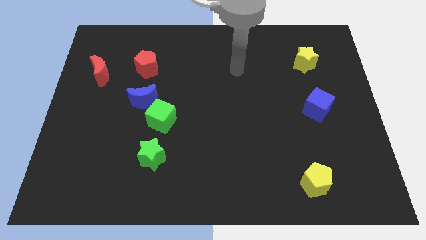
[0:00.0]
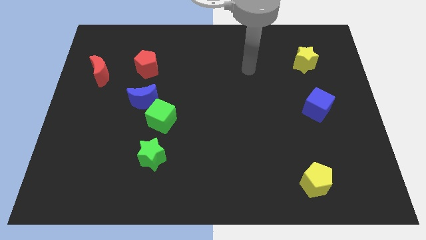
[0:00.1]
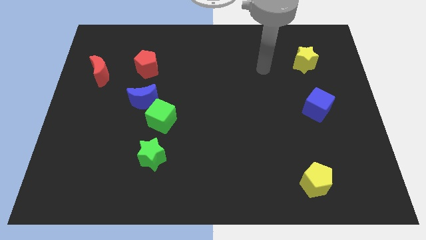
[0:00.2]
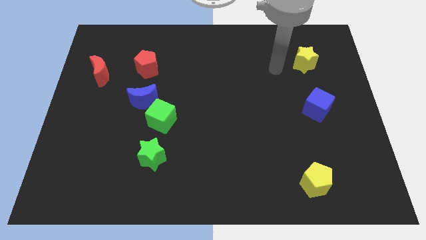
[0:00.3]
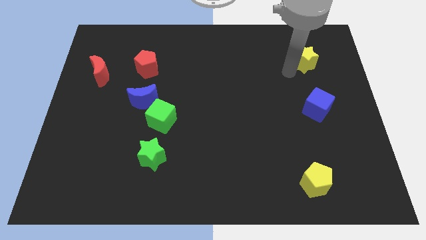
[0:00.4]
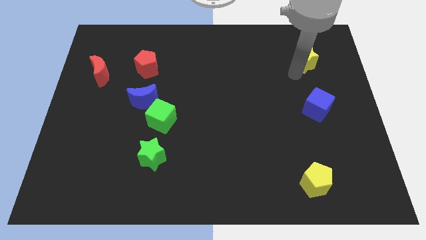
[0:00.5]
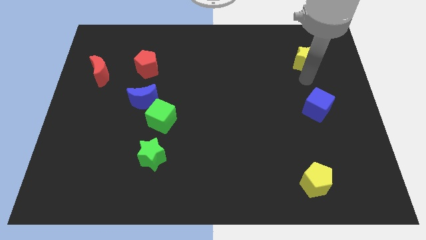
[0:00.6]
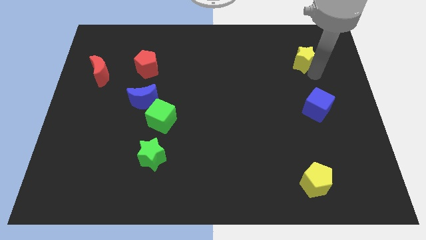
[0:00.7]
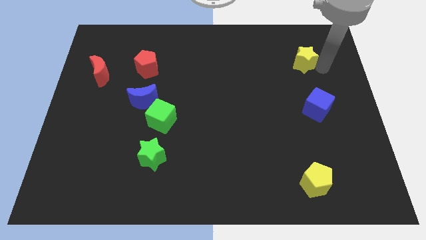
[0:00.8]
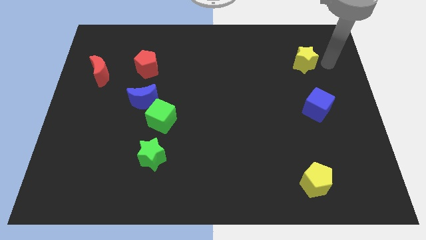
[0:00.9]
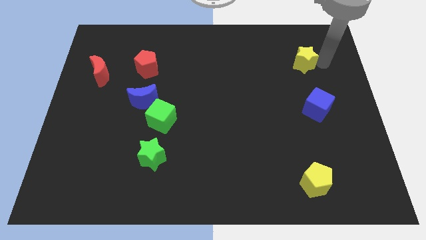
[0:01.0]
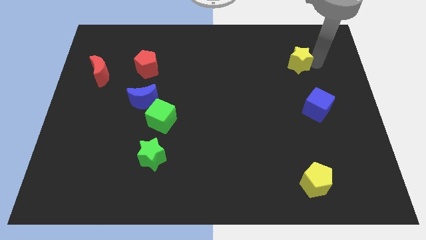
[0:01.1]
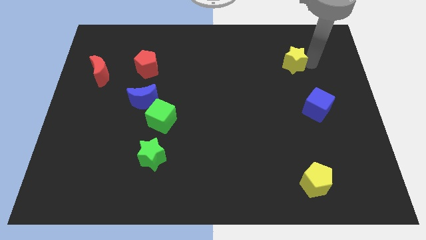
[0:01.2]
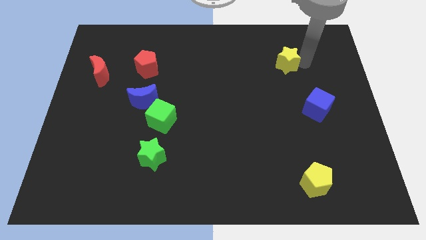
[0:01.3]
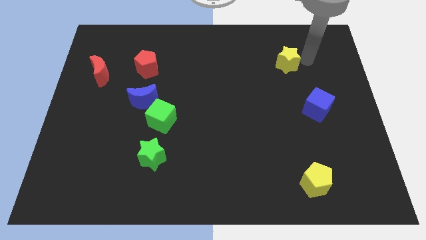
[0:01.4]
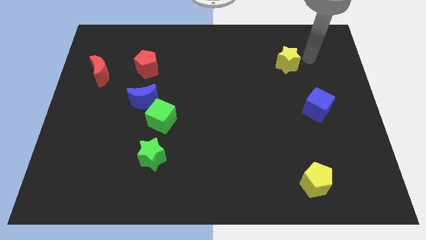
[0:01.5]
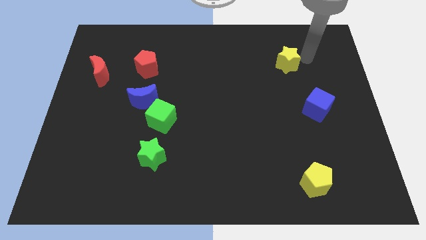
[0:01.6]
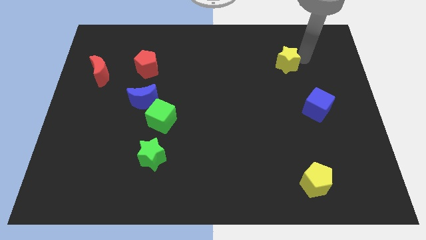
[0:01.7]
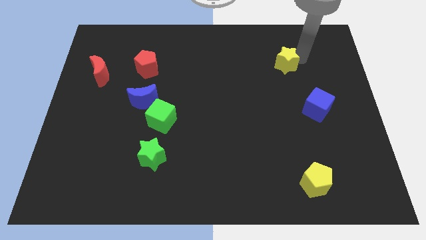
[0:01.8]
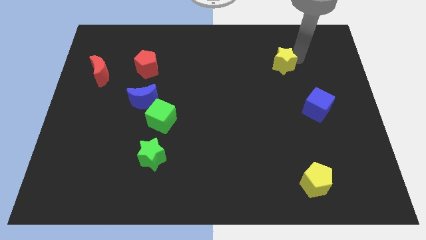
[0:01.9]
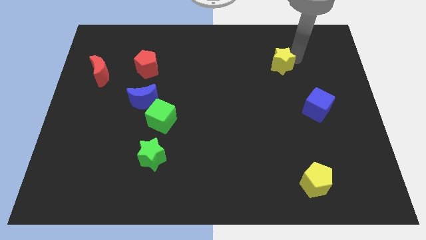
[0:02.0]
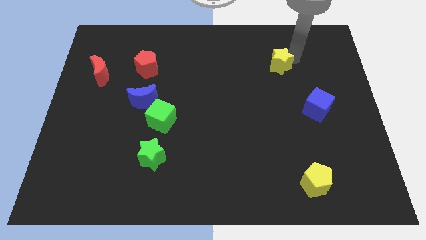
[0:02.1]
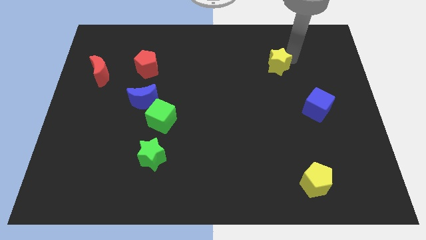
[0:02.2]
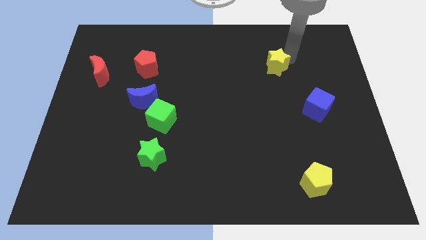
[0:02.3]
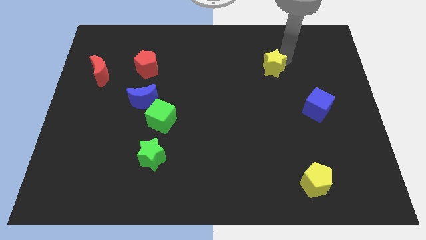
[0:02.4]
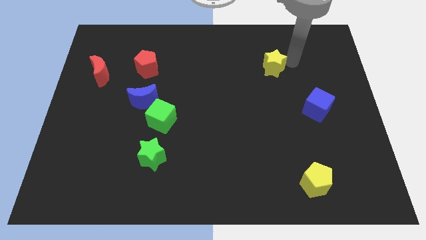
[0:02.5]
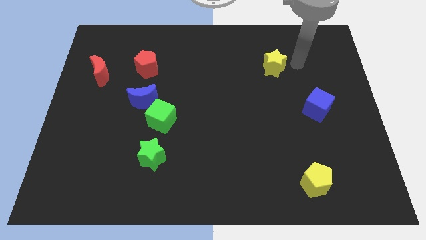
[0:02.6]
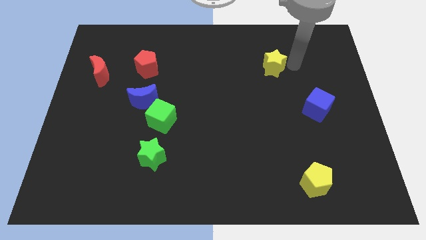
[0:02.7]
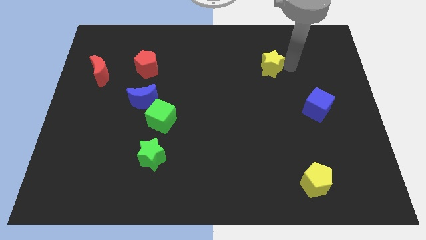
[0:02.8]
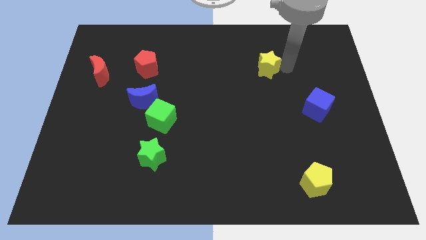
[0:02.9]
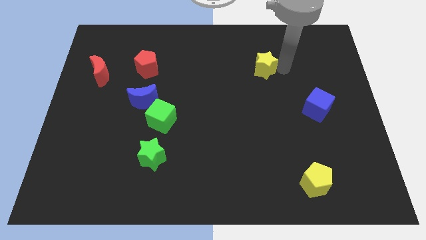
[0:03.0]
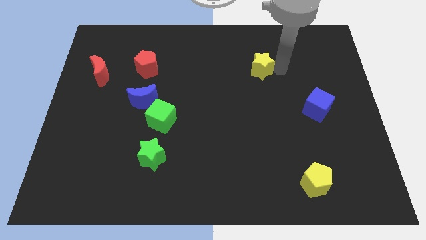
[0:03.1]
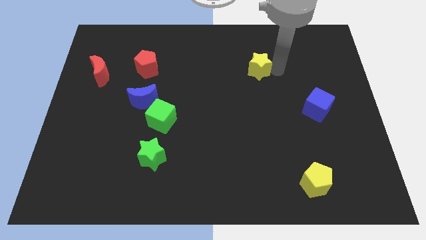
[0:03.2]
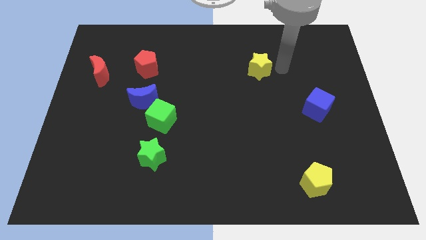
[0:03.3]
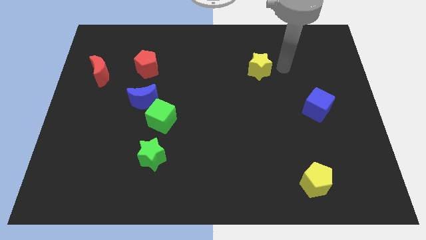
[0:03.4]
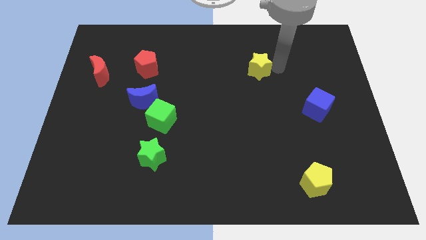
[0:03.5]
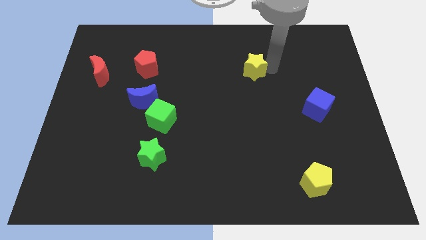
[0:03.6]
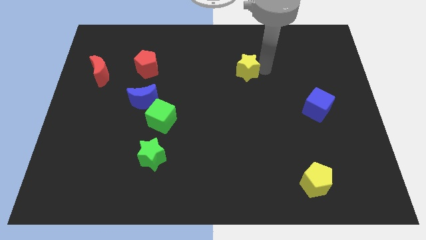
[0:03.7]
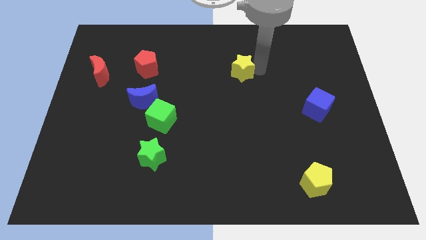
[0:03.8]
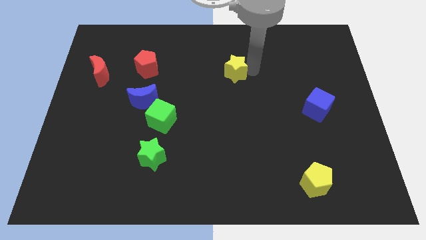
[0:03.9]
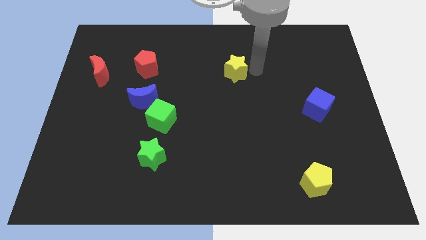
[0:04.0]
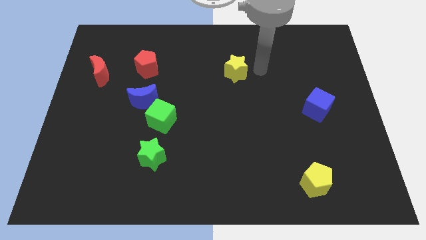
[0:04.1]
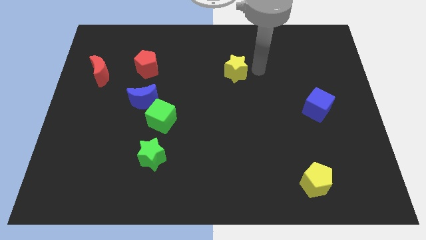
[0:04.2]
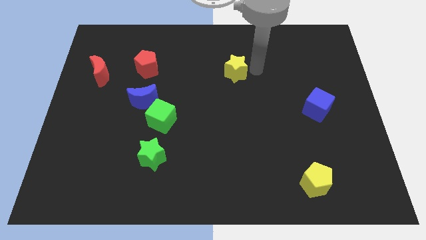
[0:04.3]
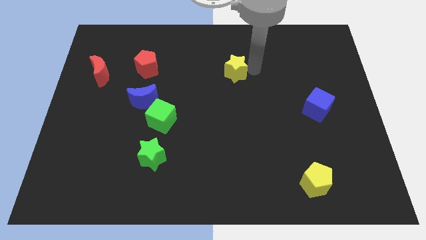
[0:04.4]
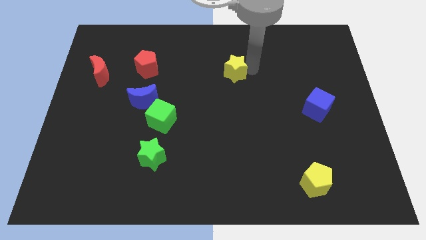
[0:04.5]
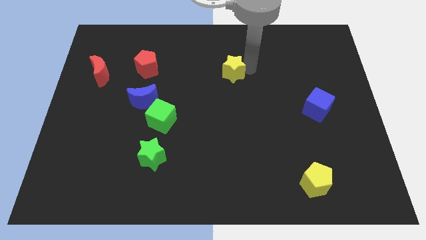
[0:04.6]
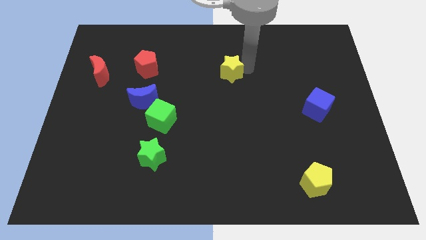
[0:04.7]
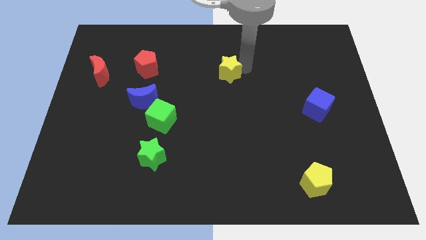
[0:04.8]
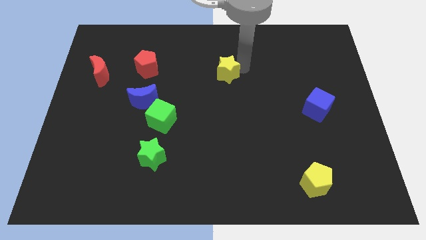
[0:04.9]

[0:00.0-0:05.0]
slide the yellow star left

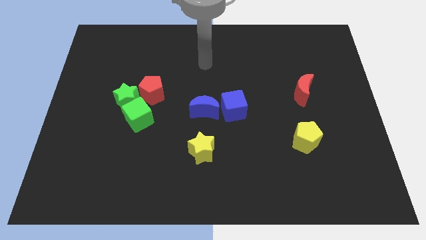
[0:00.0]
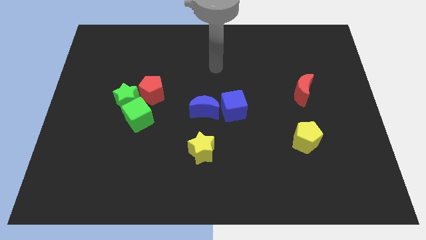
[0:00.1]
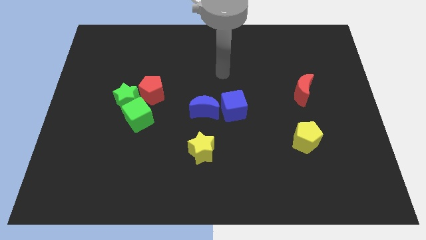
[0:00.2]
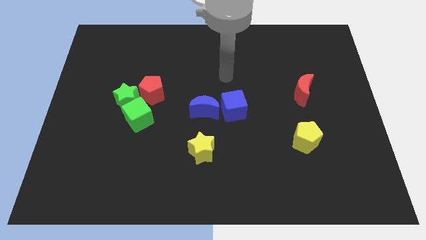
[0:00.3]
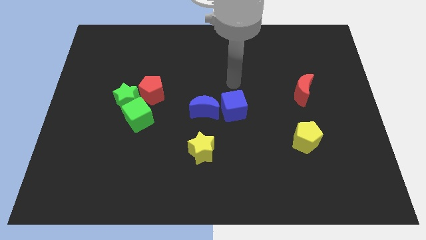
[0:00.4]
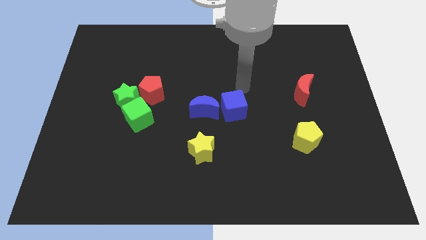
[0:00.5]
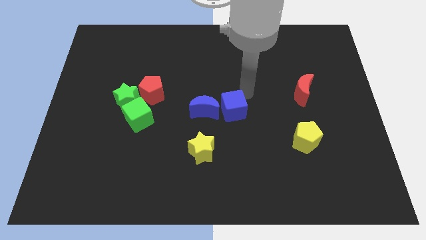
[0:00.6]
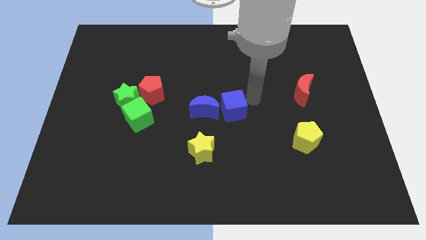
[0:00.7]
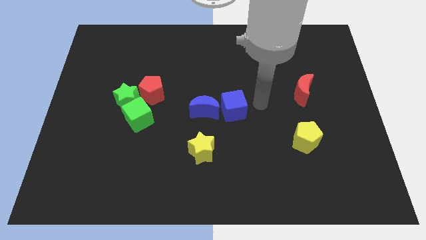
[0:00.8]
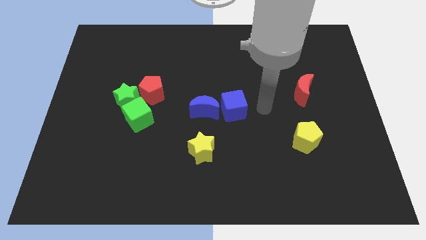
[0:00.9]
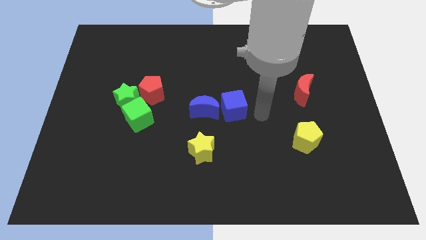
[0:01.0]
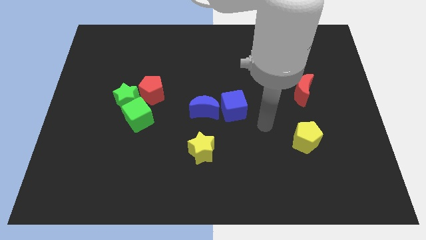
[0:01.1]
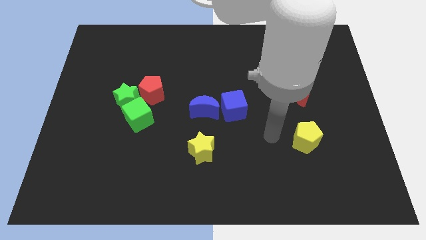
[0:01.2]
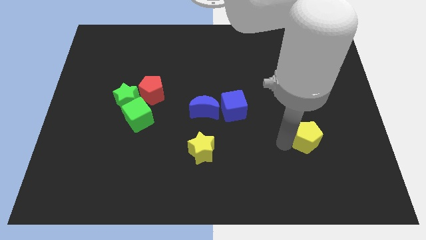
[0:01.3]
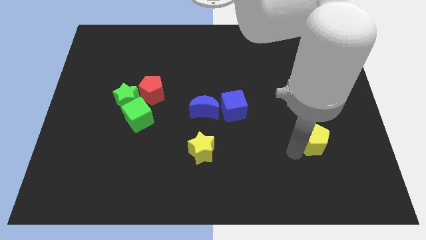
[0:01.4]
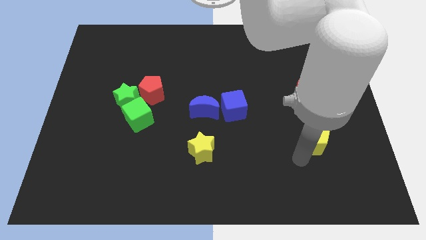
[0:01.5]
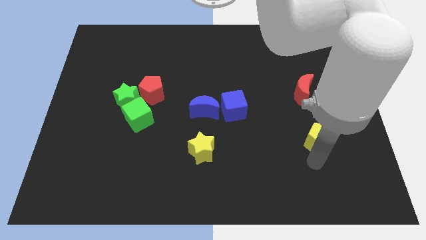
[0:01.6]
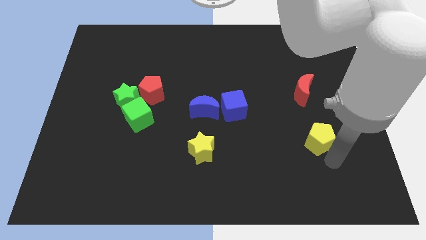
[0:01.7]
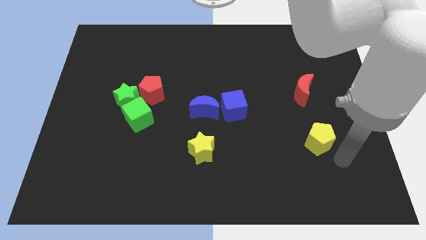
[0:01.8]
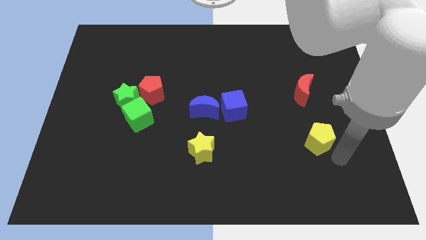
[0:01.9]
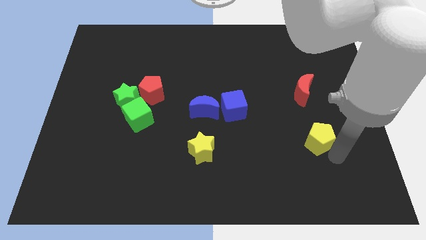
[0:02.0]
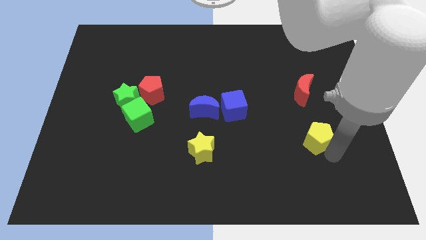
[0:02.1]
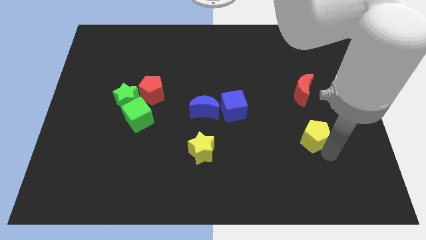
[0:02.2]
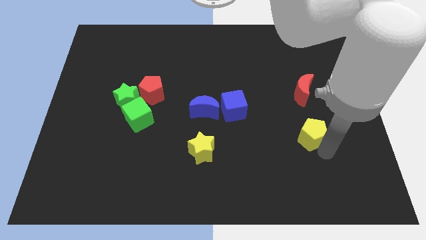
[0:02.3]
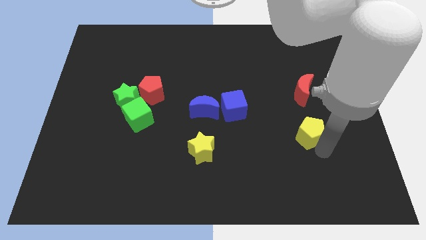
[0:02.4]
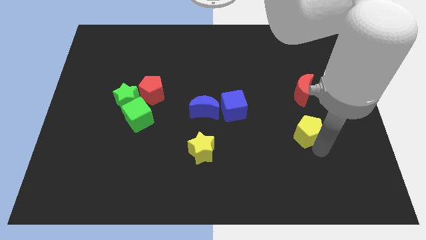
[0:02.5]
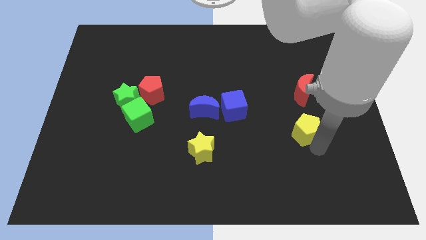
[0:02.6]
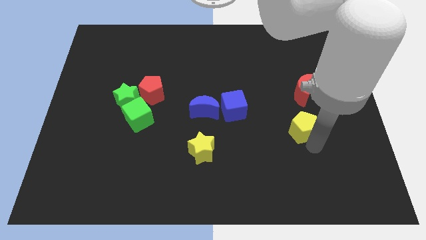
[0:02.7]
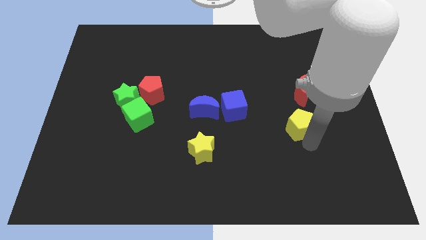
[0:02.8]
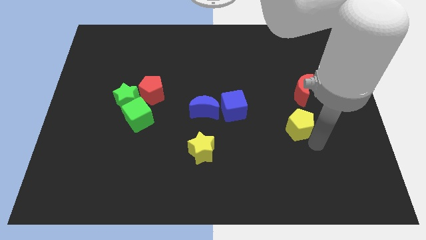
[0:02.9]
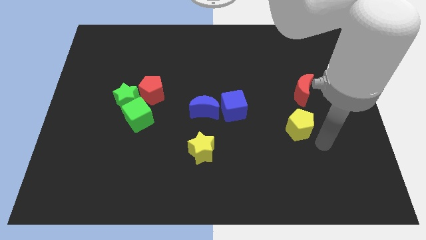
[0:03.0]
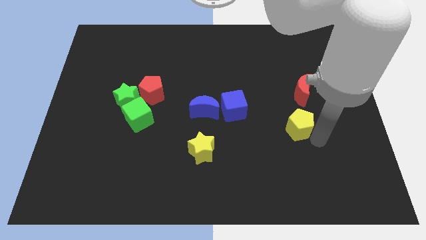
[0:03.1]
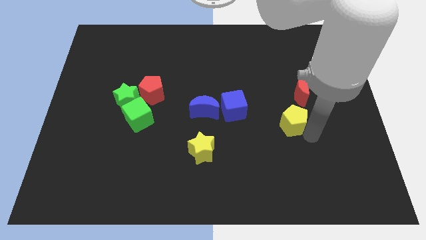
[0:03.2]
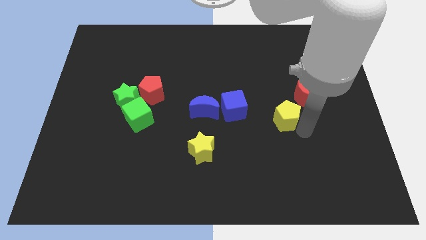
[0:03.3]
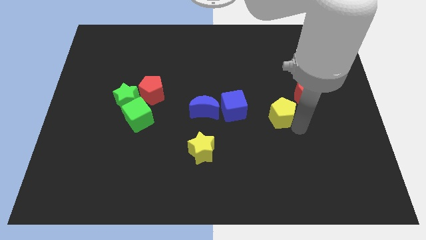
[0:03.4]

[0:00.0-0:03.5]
slide the yellow pentagon up and left somewhat
